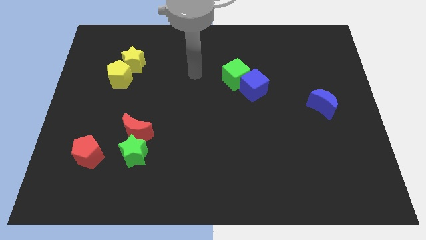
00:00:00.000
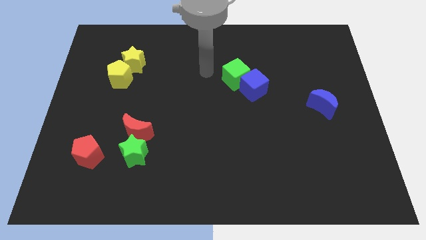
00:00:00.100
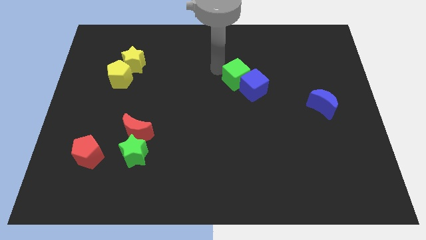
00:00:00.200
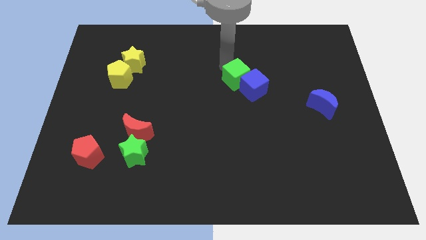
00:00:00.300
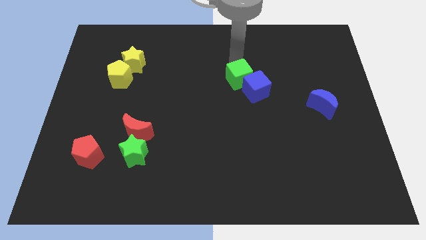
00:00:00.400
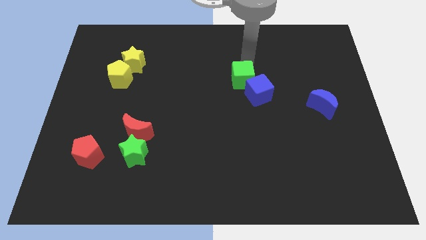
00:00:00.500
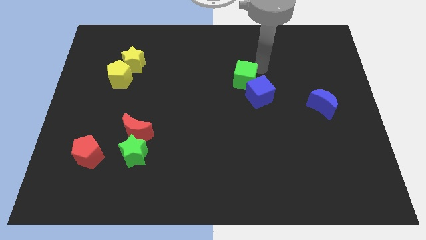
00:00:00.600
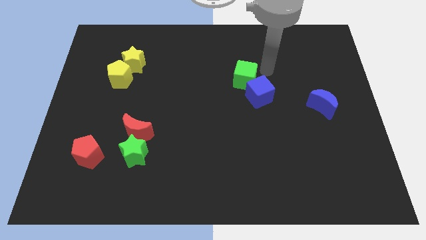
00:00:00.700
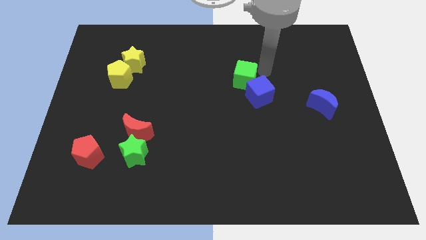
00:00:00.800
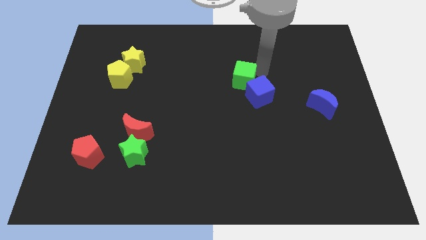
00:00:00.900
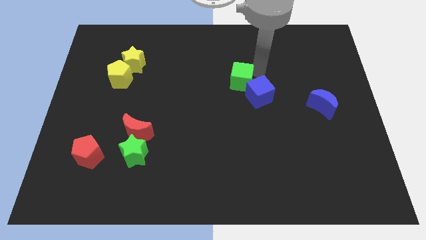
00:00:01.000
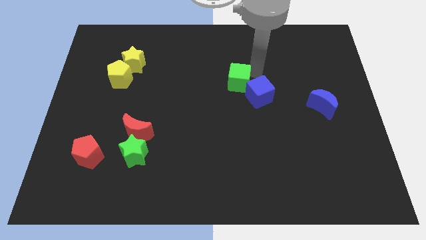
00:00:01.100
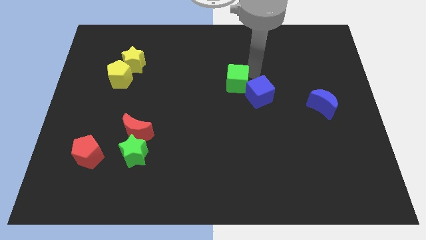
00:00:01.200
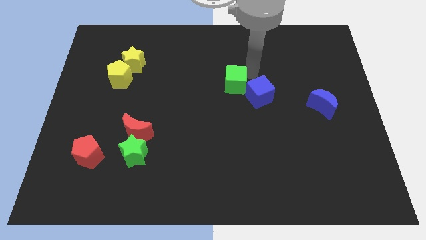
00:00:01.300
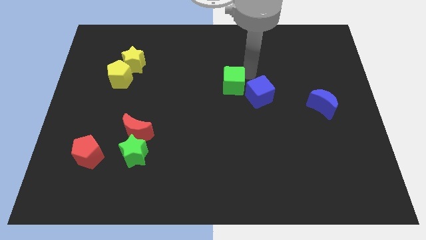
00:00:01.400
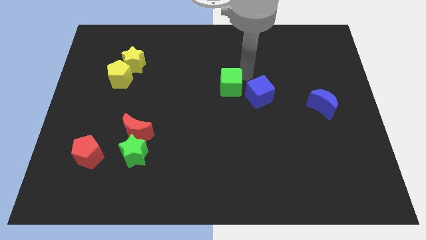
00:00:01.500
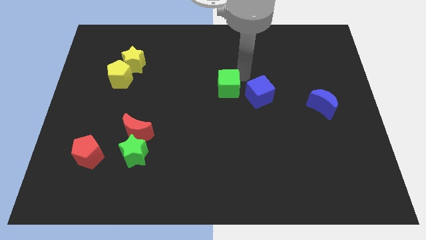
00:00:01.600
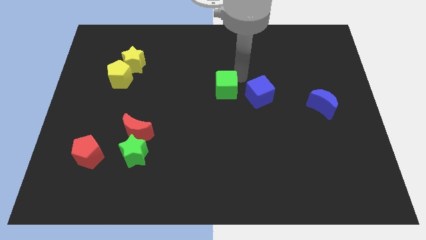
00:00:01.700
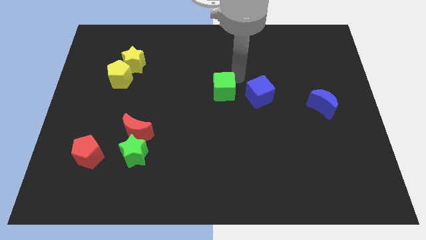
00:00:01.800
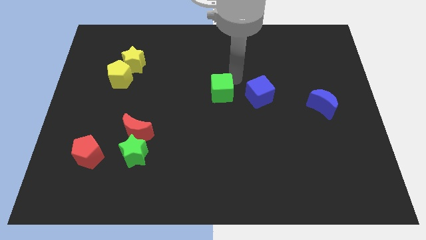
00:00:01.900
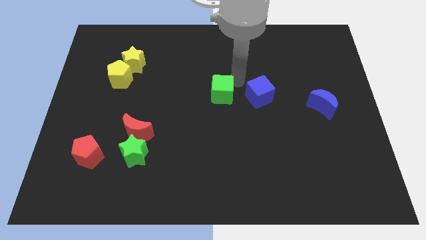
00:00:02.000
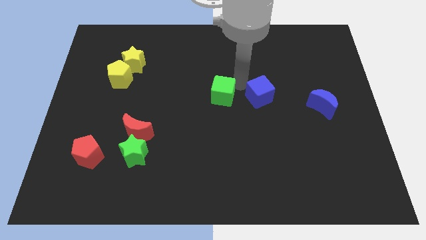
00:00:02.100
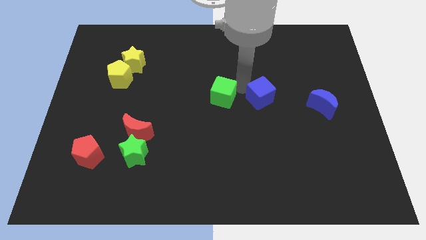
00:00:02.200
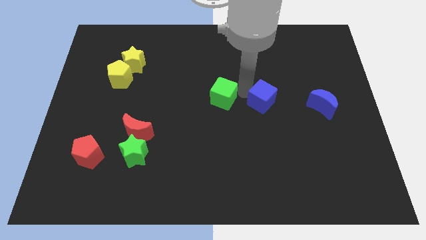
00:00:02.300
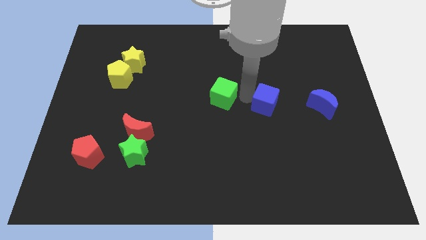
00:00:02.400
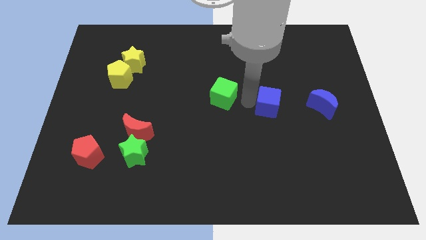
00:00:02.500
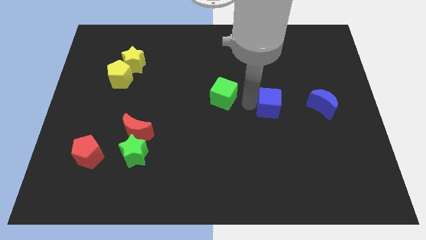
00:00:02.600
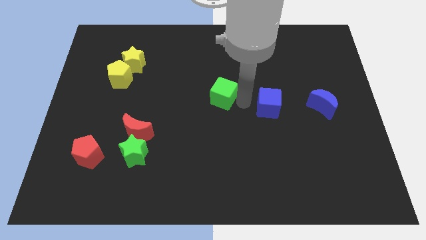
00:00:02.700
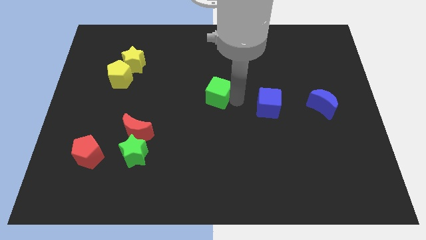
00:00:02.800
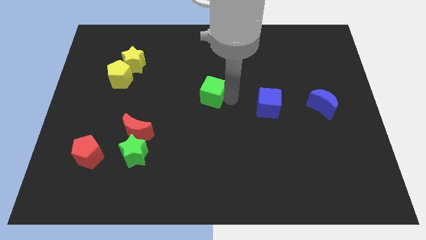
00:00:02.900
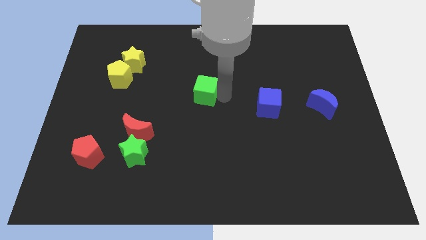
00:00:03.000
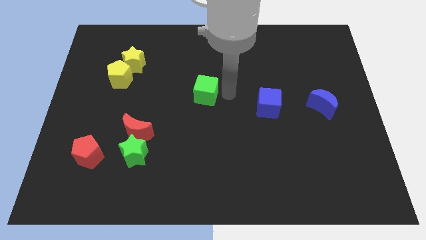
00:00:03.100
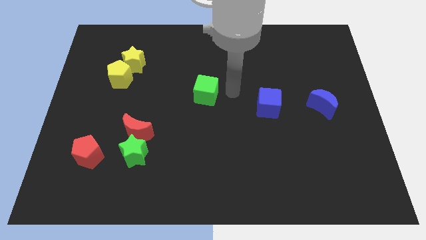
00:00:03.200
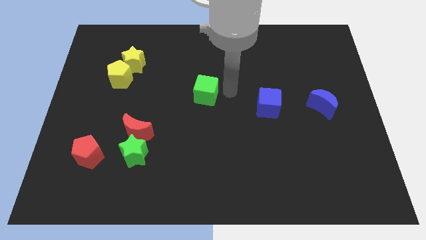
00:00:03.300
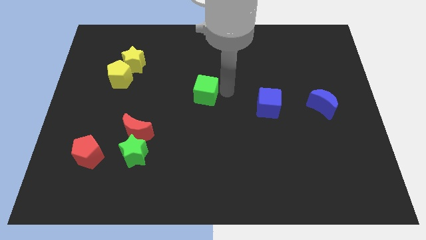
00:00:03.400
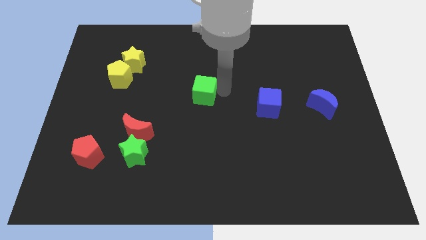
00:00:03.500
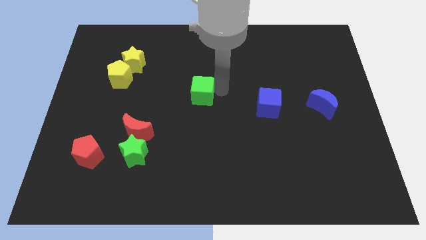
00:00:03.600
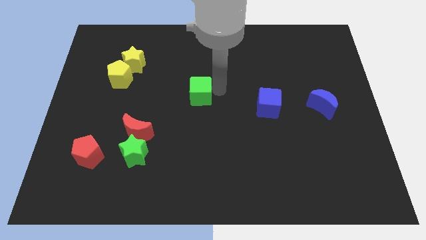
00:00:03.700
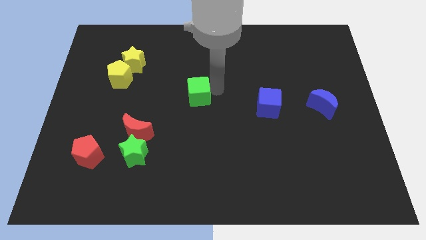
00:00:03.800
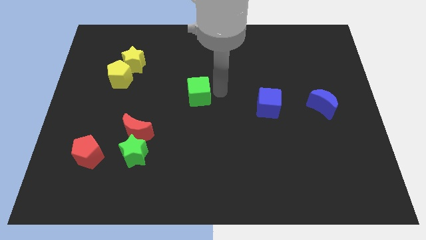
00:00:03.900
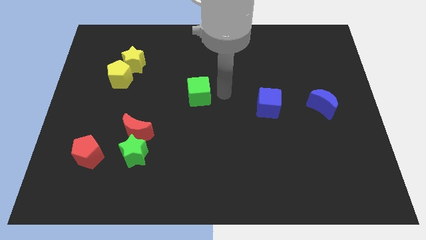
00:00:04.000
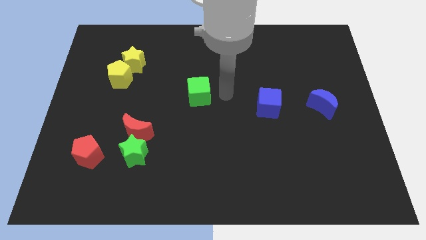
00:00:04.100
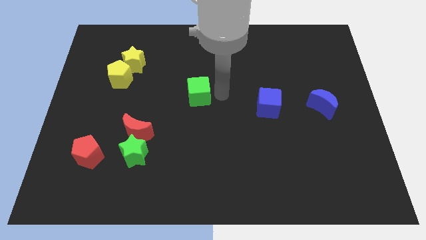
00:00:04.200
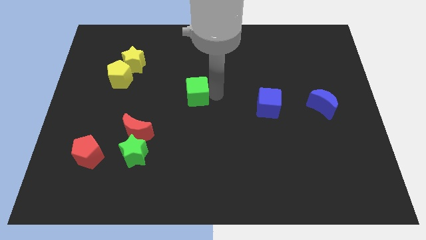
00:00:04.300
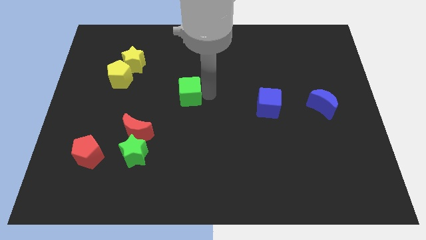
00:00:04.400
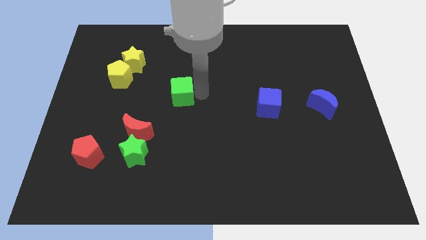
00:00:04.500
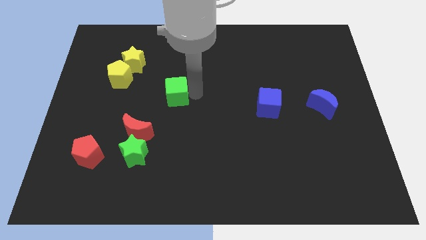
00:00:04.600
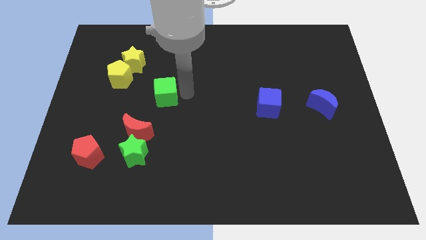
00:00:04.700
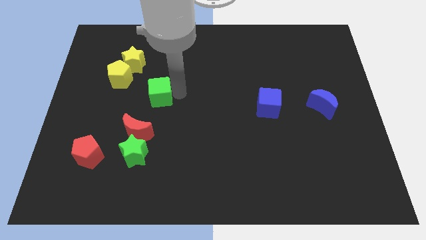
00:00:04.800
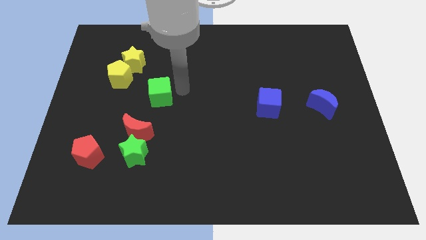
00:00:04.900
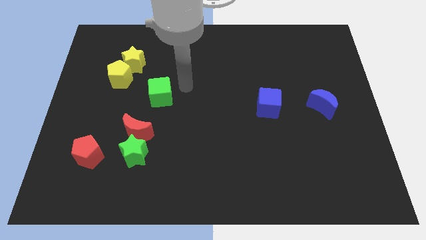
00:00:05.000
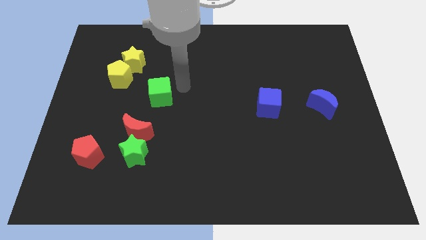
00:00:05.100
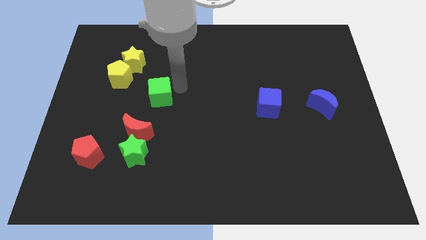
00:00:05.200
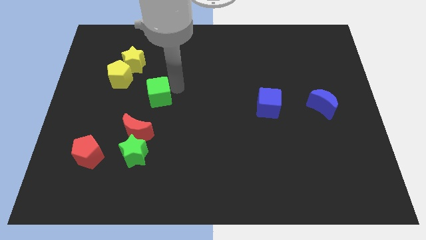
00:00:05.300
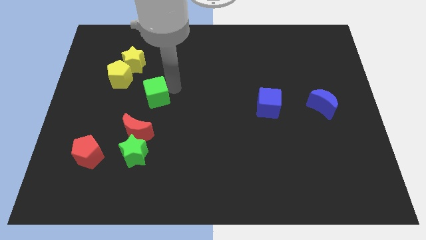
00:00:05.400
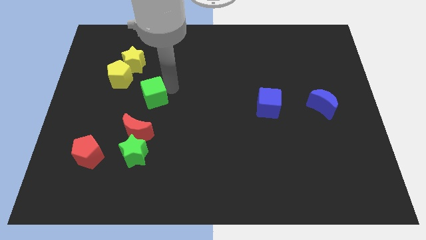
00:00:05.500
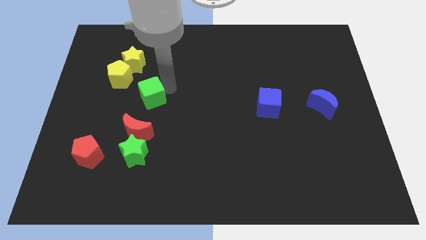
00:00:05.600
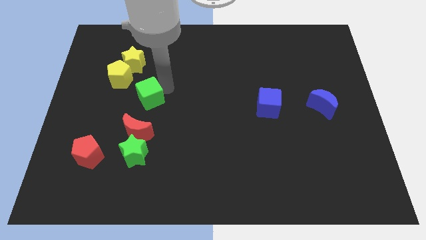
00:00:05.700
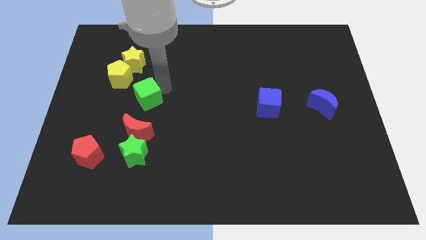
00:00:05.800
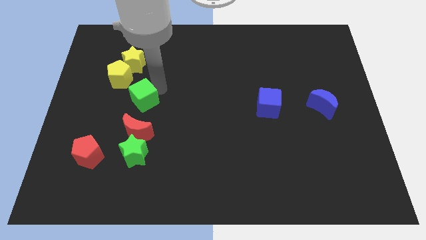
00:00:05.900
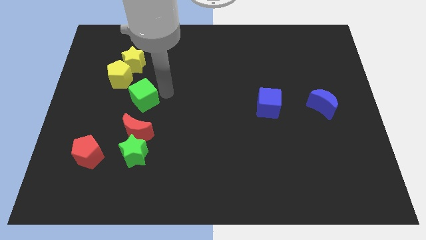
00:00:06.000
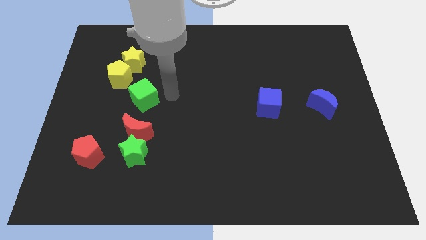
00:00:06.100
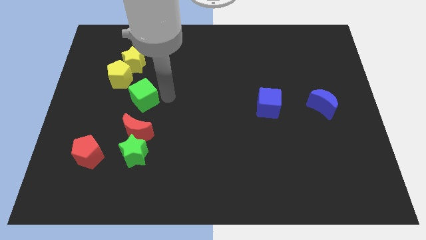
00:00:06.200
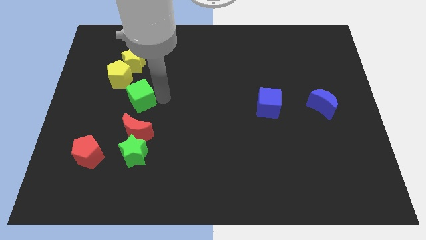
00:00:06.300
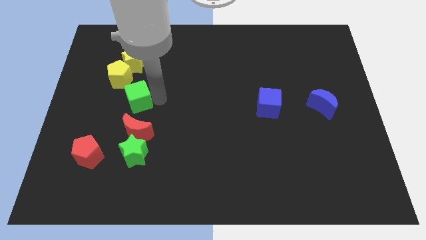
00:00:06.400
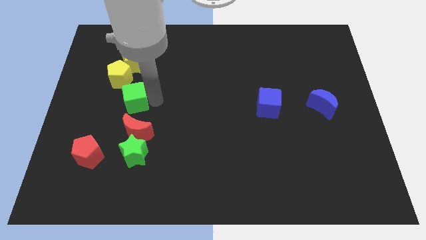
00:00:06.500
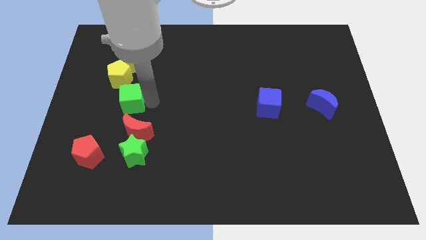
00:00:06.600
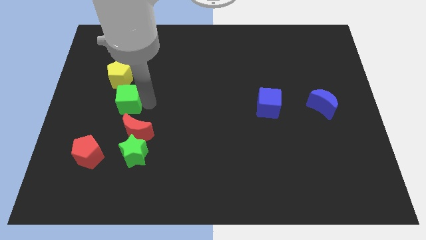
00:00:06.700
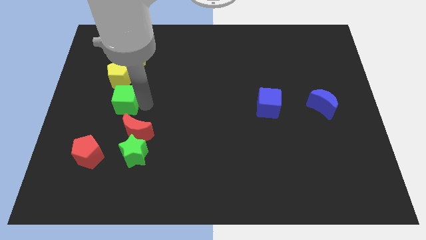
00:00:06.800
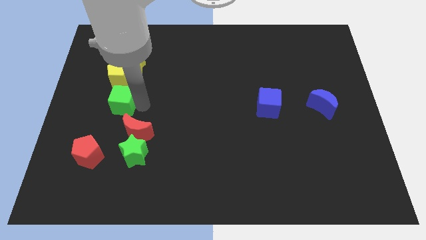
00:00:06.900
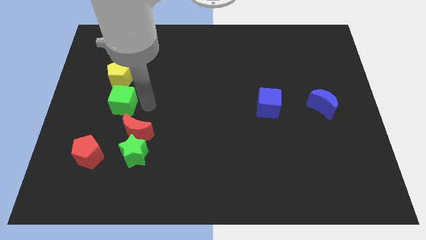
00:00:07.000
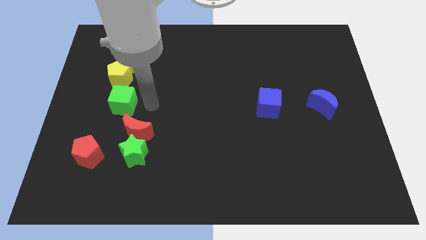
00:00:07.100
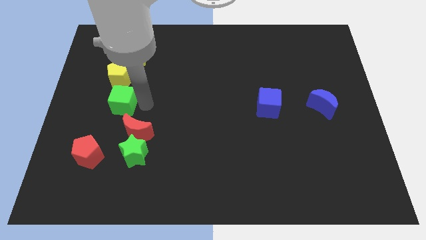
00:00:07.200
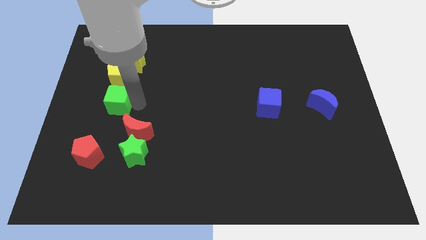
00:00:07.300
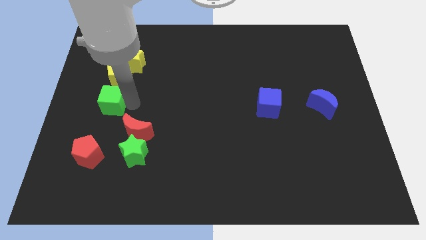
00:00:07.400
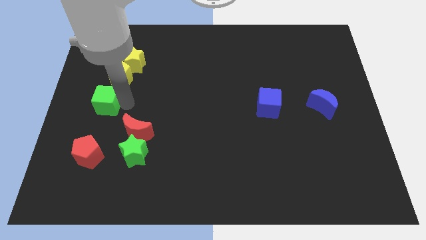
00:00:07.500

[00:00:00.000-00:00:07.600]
put the green cube to the left side
